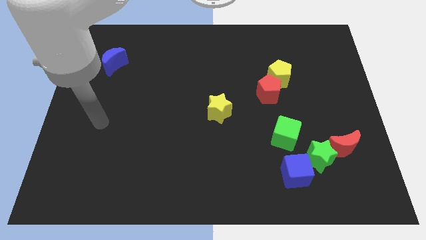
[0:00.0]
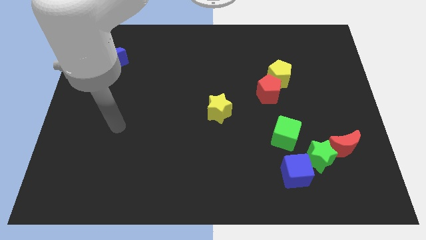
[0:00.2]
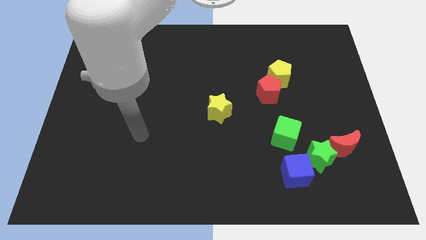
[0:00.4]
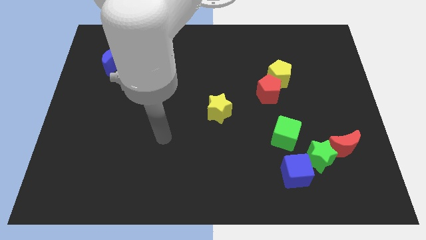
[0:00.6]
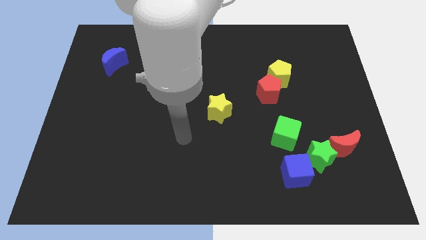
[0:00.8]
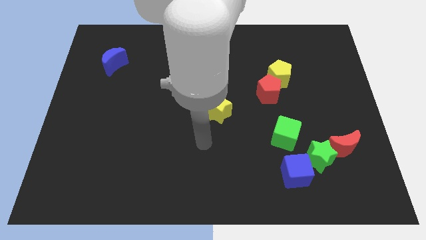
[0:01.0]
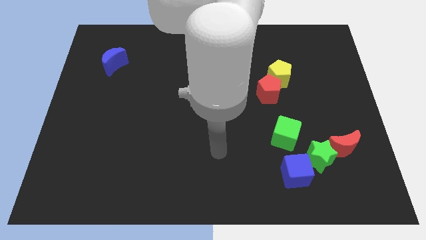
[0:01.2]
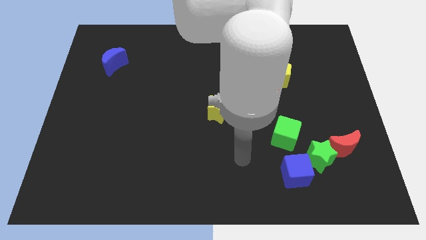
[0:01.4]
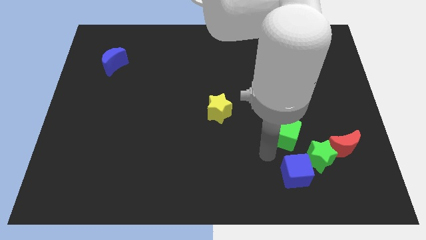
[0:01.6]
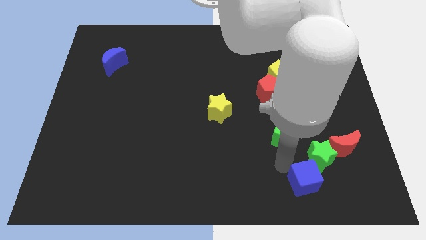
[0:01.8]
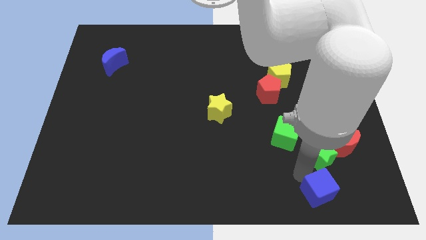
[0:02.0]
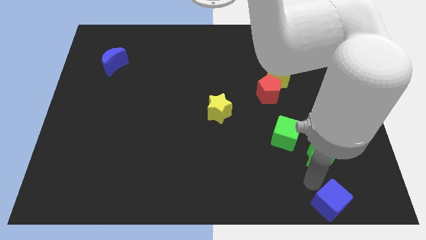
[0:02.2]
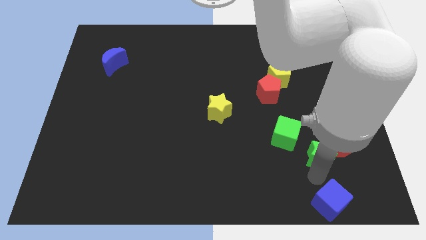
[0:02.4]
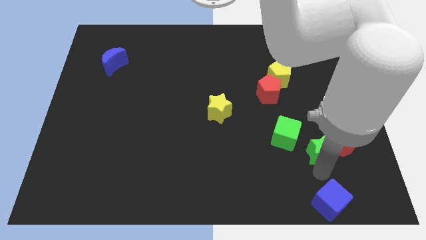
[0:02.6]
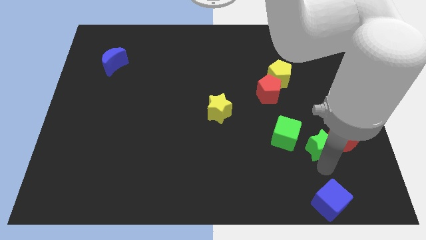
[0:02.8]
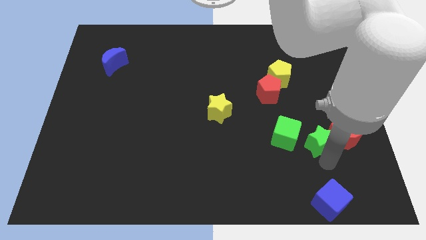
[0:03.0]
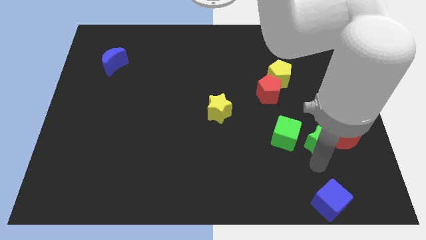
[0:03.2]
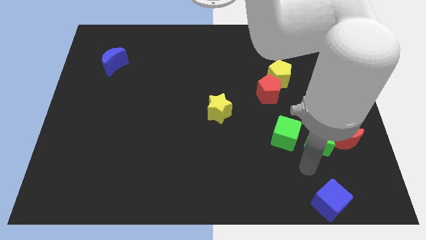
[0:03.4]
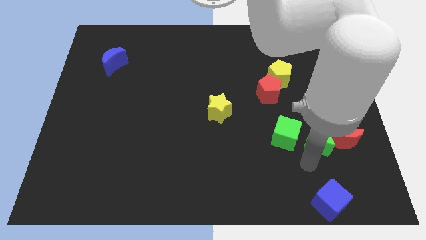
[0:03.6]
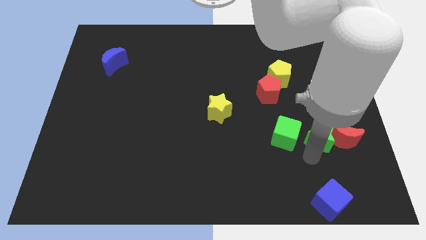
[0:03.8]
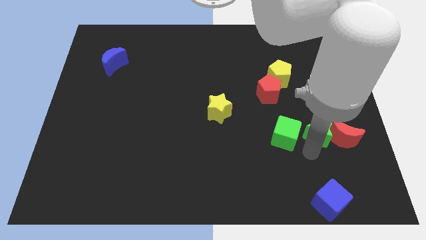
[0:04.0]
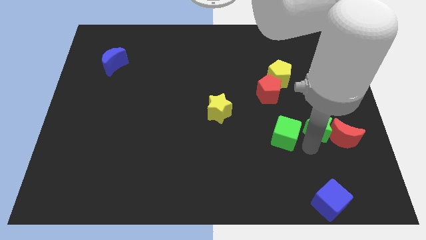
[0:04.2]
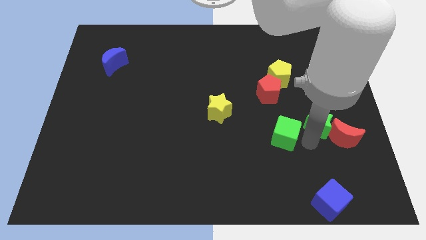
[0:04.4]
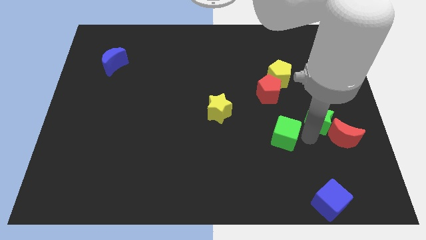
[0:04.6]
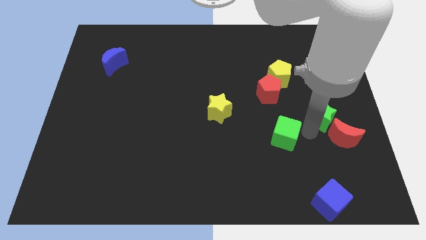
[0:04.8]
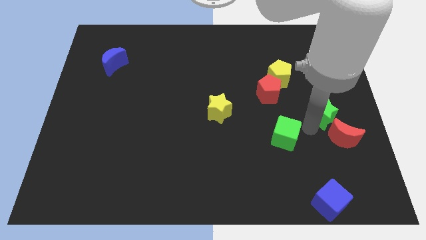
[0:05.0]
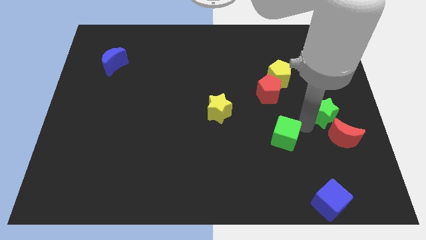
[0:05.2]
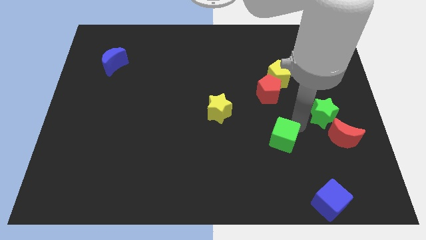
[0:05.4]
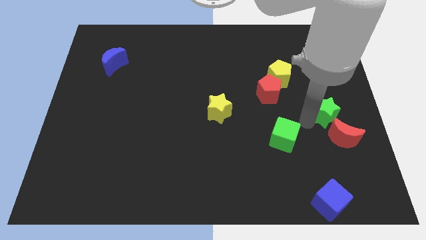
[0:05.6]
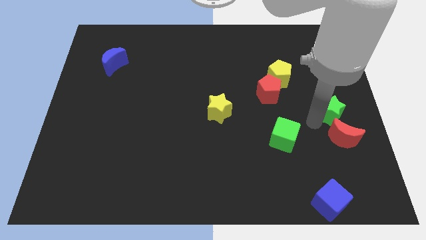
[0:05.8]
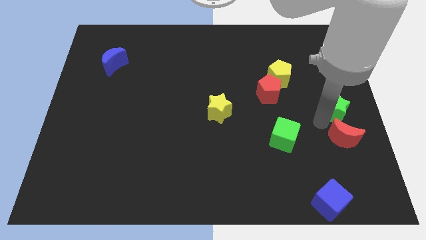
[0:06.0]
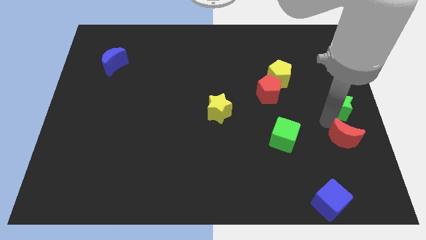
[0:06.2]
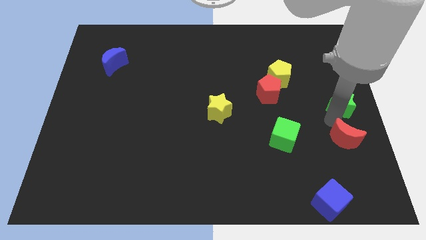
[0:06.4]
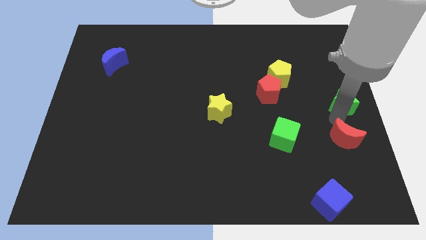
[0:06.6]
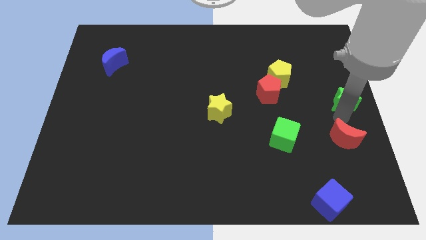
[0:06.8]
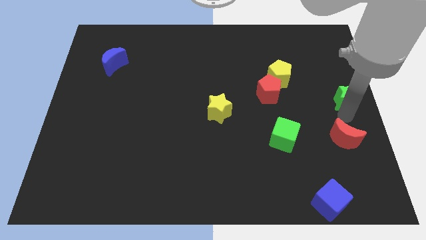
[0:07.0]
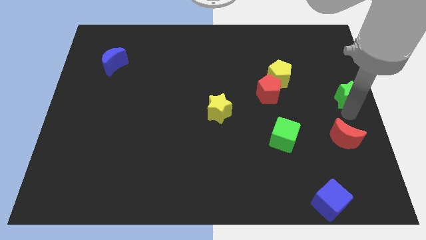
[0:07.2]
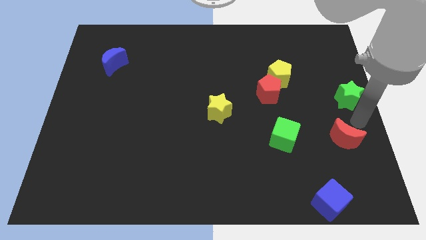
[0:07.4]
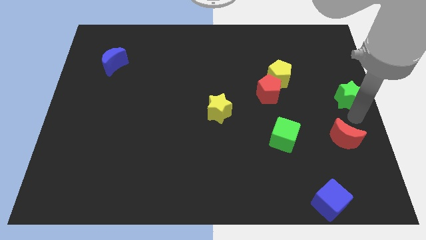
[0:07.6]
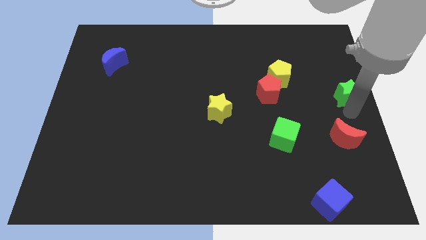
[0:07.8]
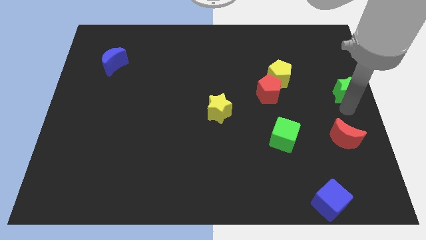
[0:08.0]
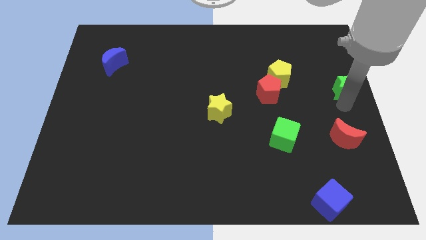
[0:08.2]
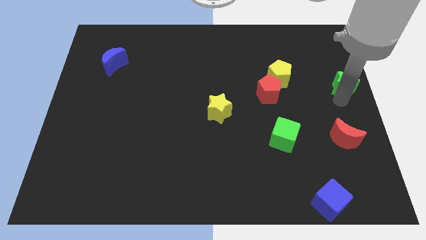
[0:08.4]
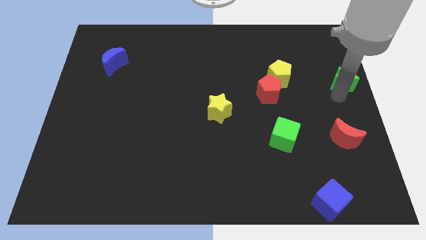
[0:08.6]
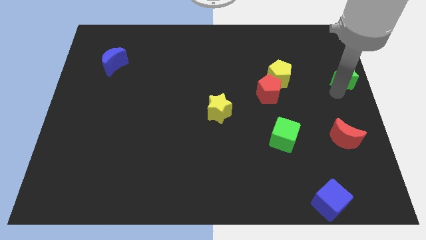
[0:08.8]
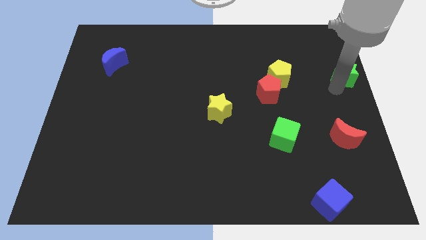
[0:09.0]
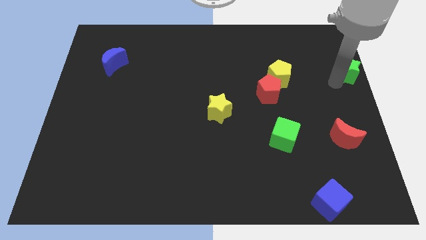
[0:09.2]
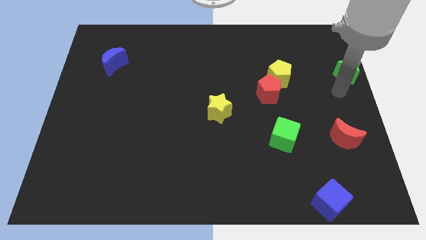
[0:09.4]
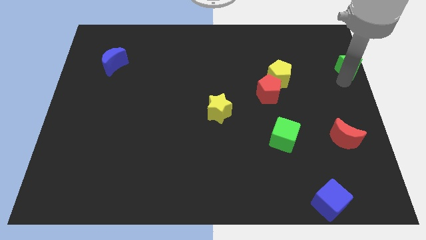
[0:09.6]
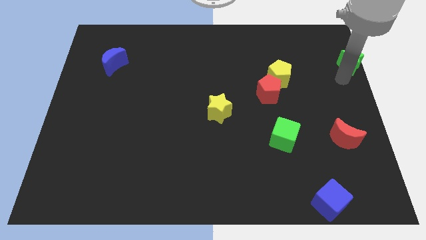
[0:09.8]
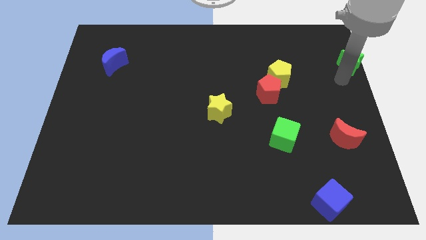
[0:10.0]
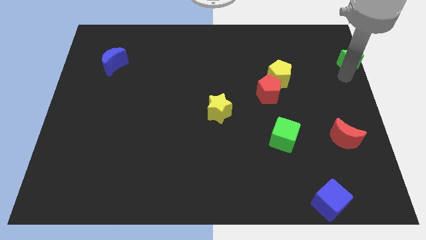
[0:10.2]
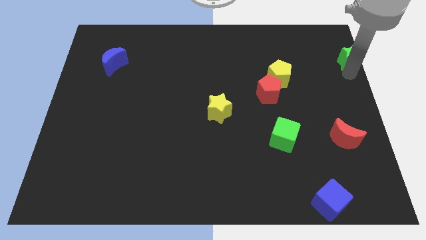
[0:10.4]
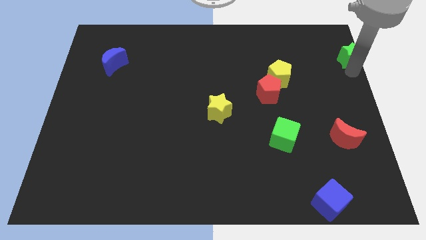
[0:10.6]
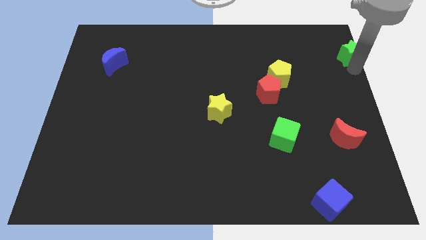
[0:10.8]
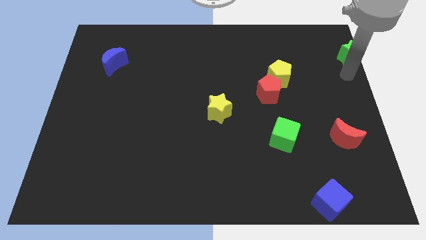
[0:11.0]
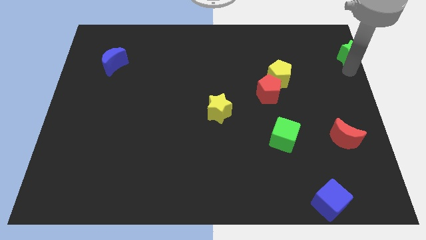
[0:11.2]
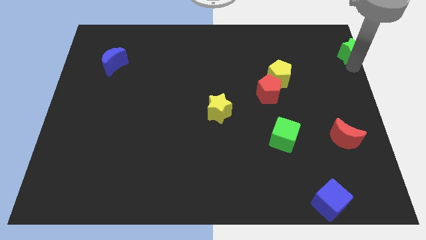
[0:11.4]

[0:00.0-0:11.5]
move the green star to the top right

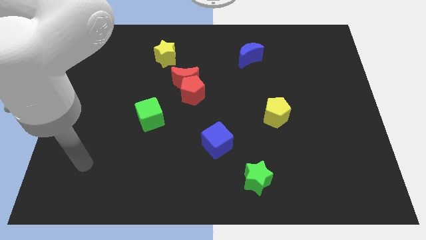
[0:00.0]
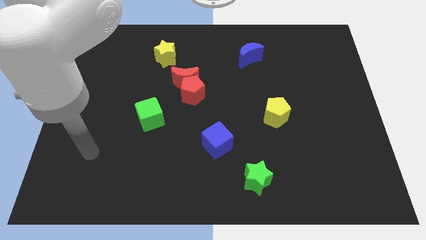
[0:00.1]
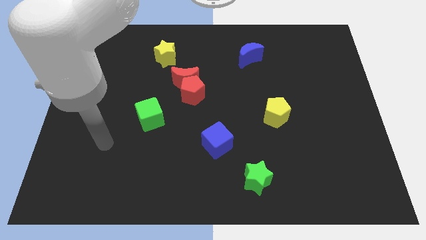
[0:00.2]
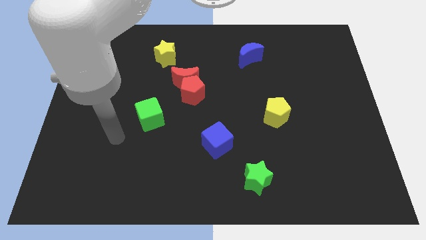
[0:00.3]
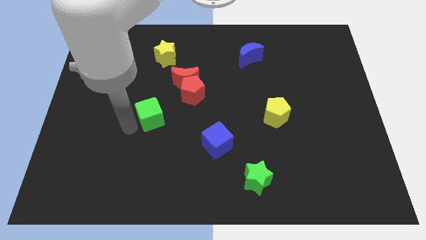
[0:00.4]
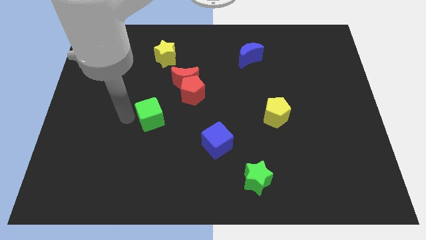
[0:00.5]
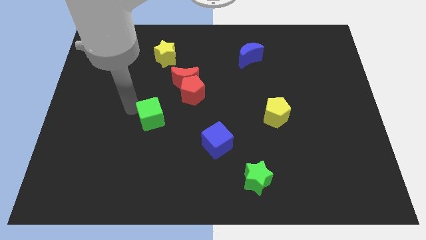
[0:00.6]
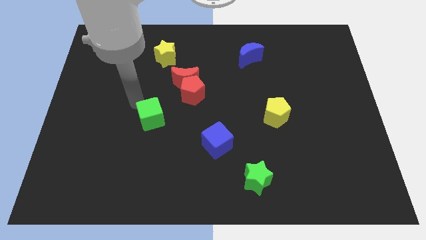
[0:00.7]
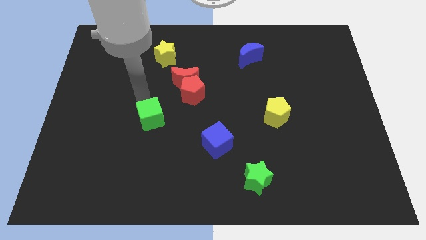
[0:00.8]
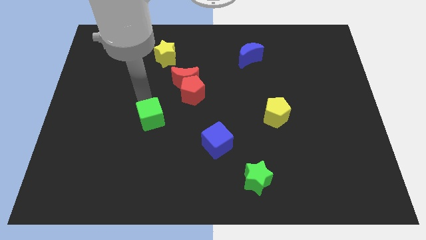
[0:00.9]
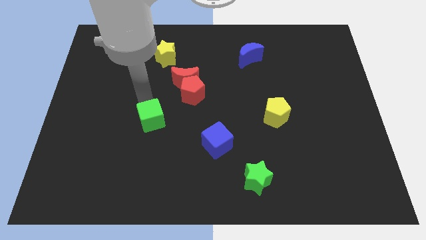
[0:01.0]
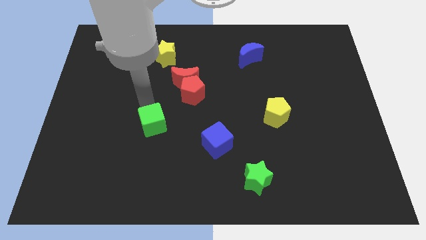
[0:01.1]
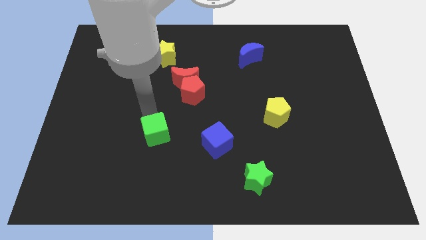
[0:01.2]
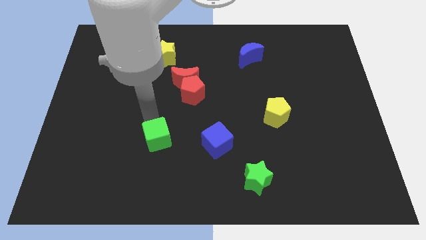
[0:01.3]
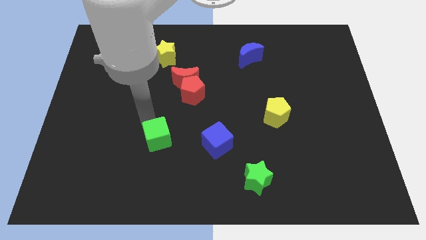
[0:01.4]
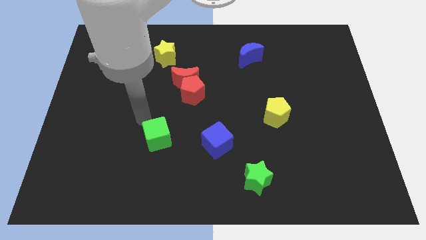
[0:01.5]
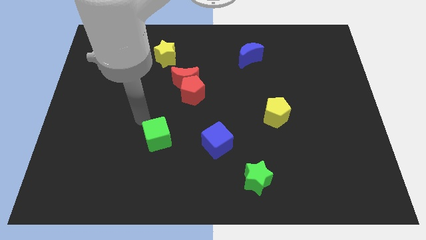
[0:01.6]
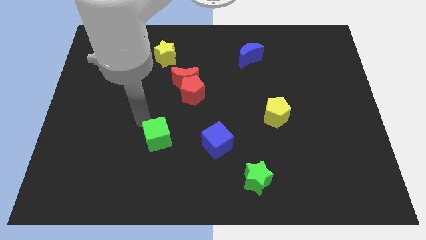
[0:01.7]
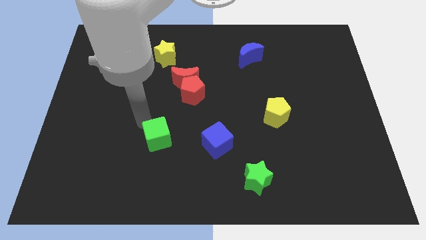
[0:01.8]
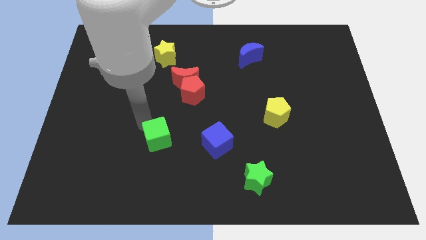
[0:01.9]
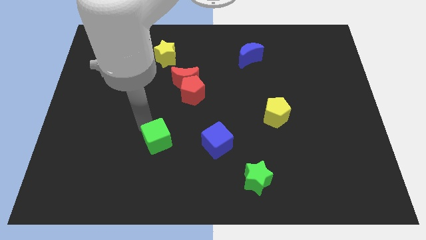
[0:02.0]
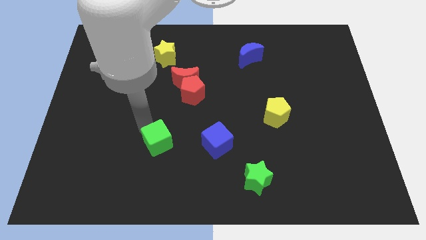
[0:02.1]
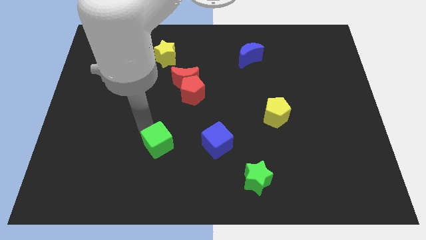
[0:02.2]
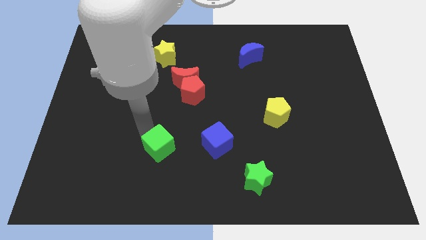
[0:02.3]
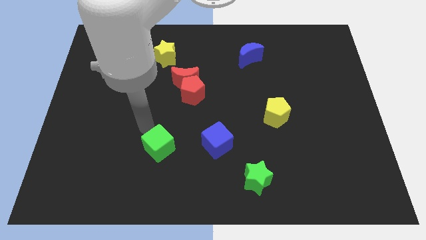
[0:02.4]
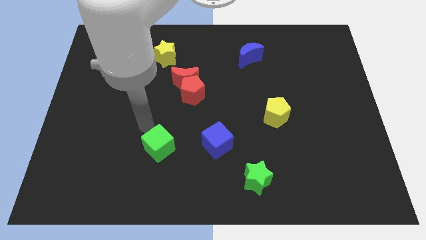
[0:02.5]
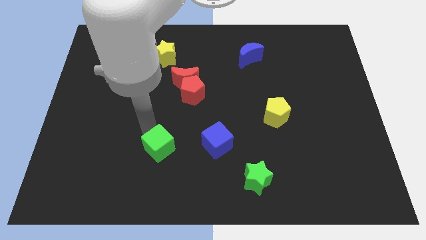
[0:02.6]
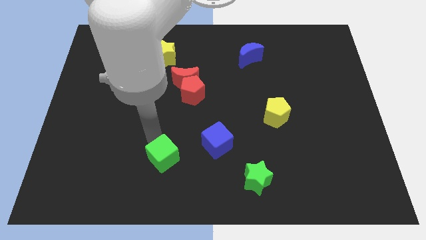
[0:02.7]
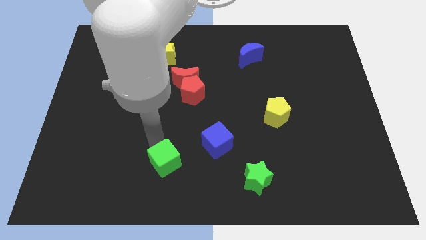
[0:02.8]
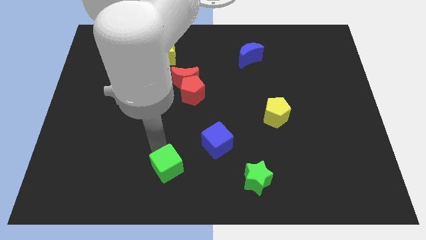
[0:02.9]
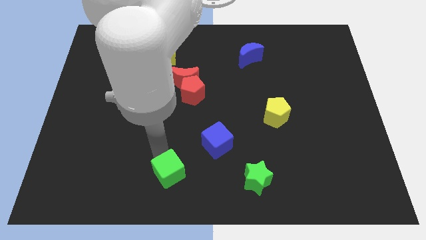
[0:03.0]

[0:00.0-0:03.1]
slide the green cube to the bottom side
